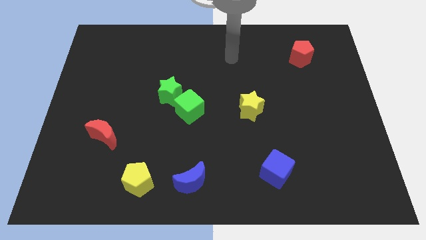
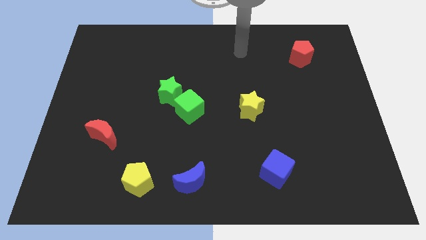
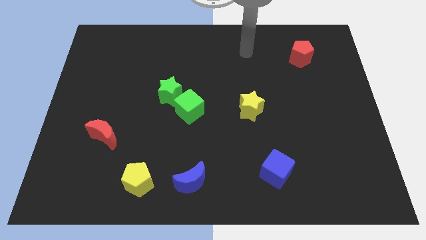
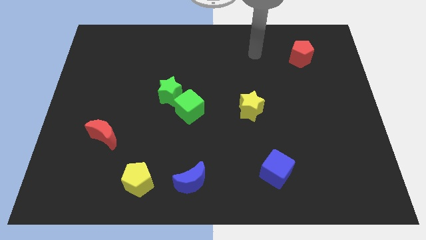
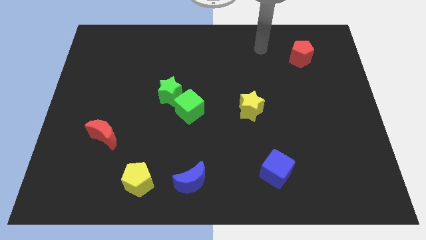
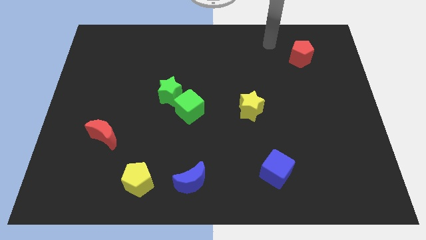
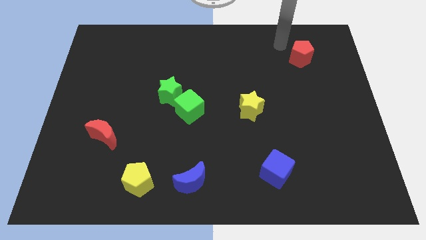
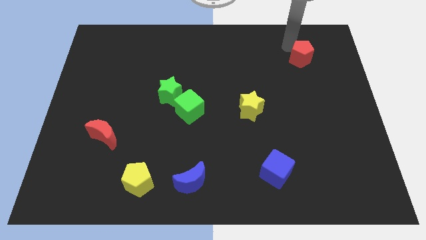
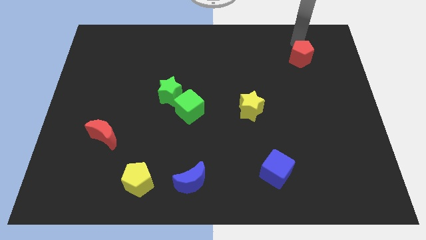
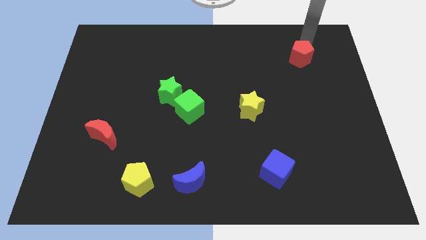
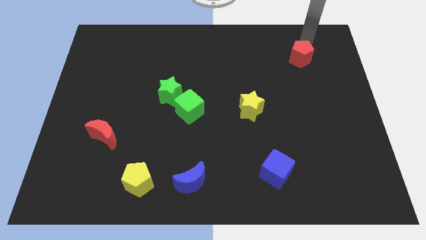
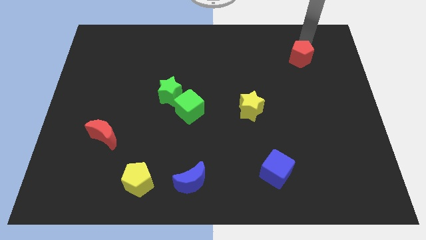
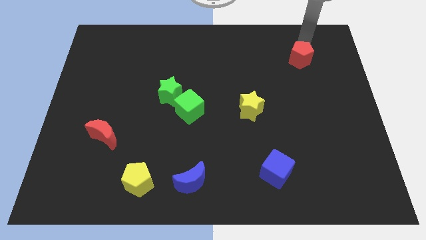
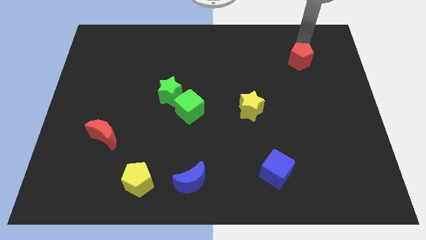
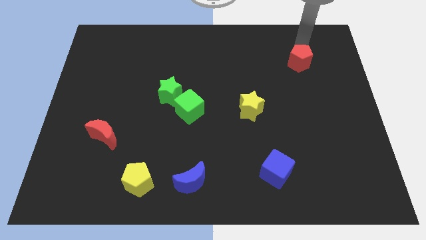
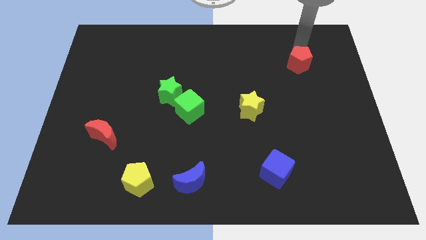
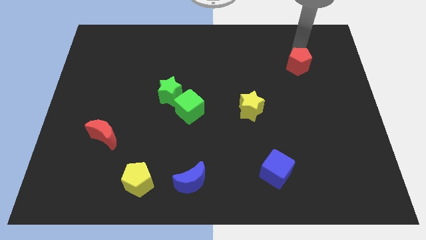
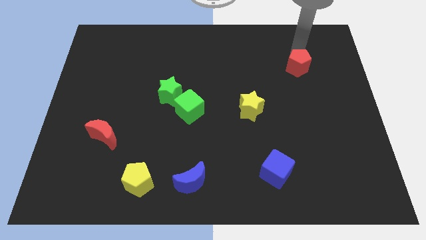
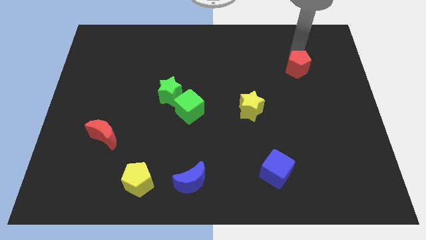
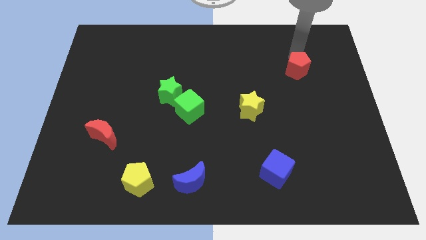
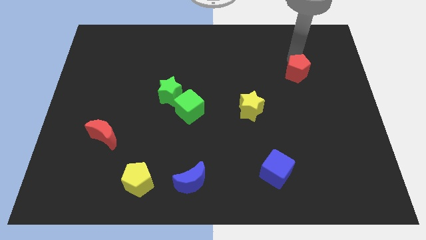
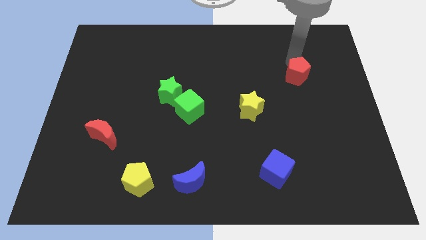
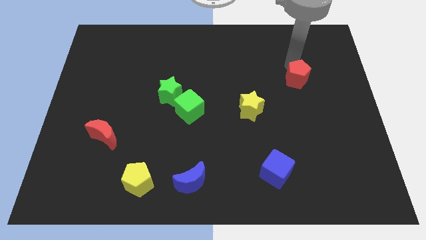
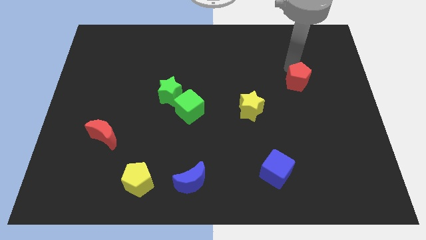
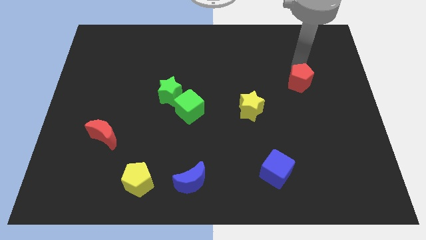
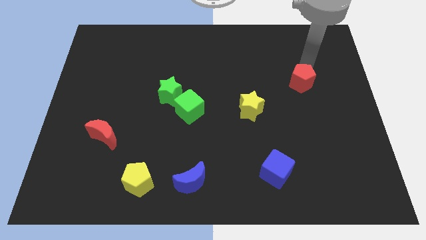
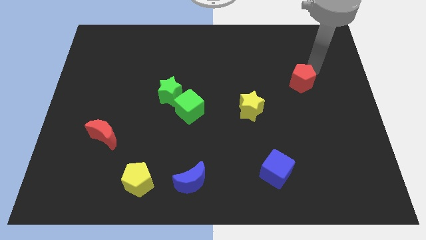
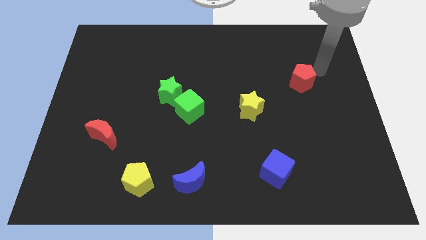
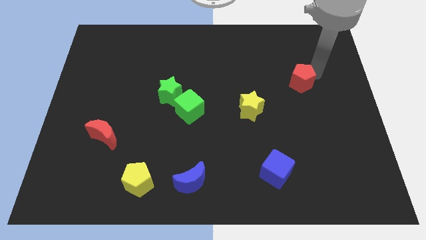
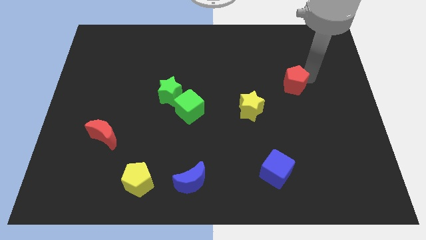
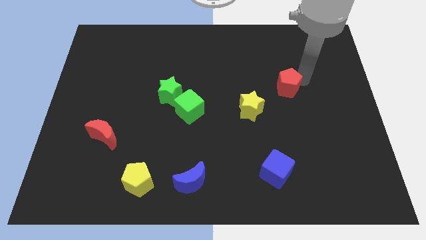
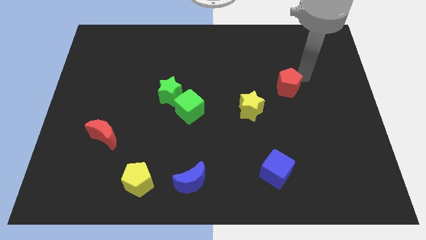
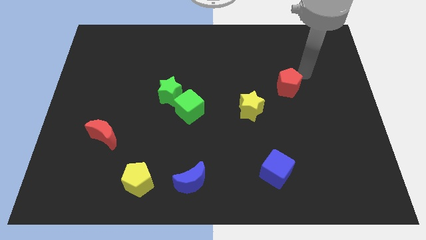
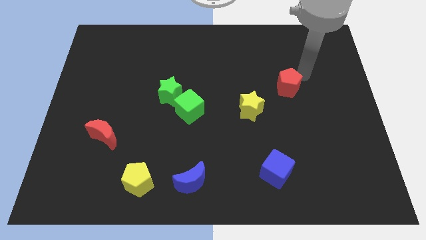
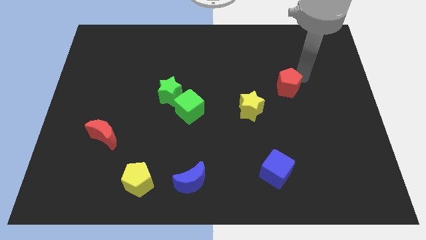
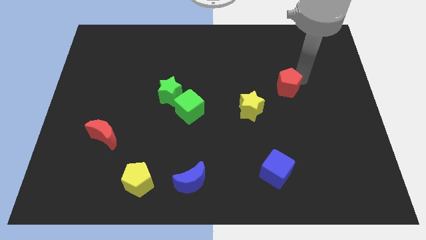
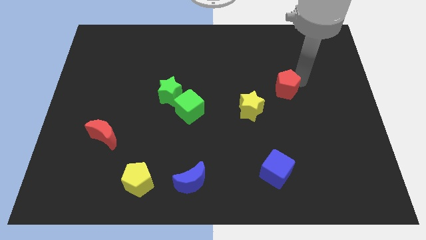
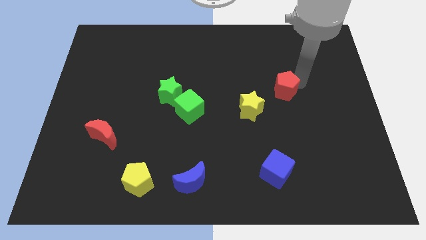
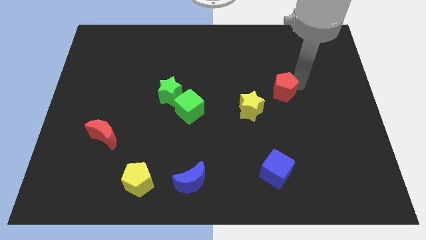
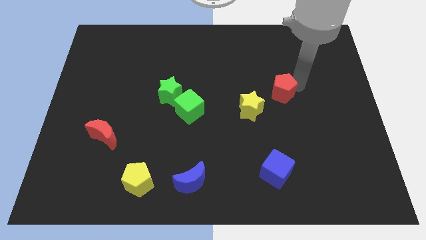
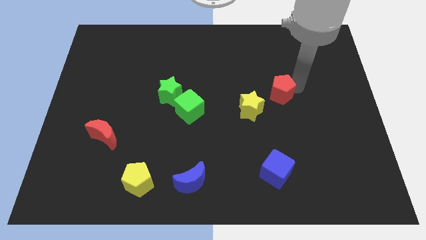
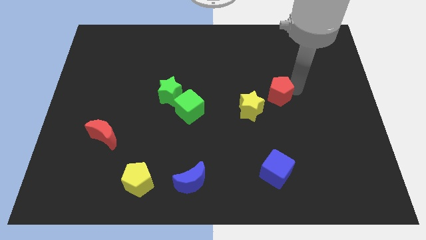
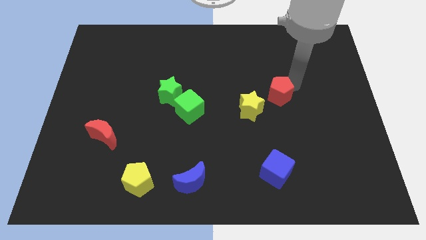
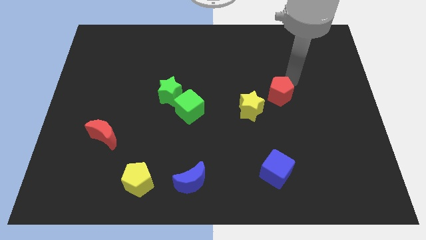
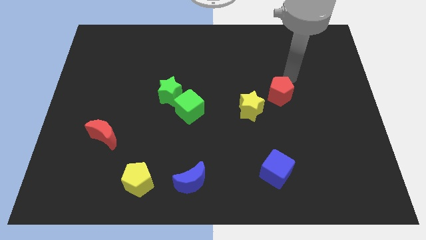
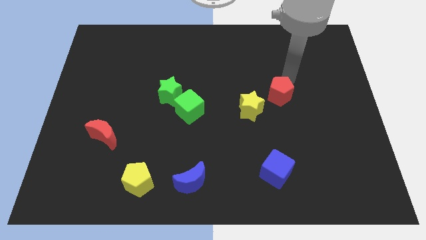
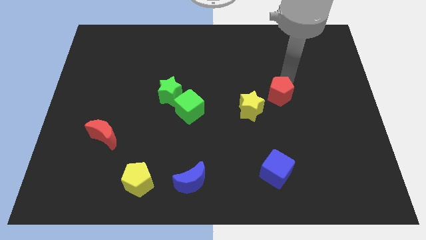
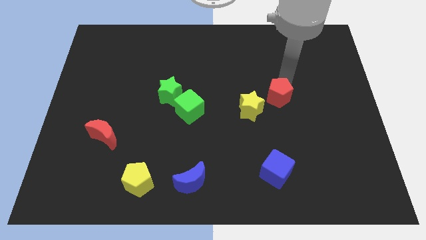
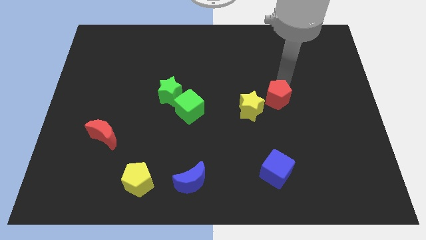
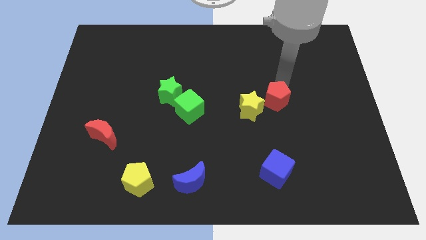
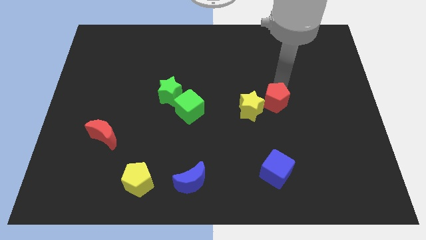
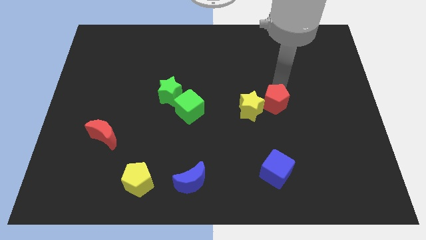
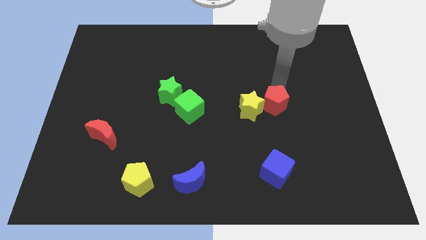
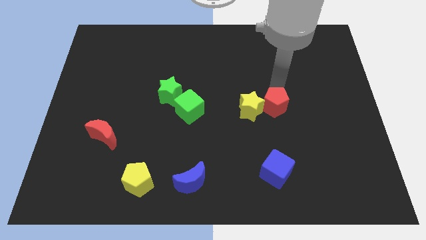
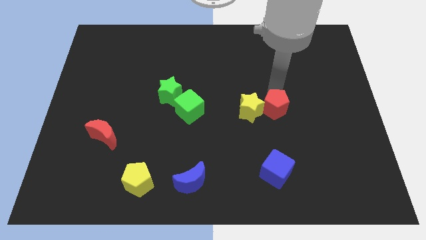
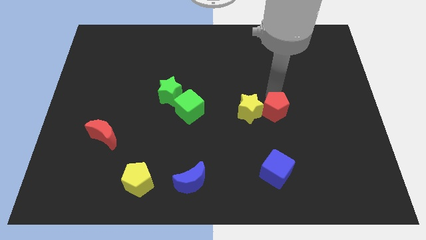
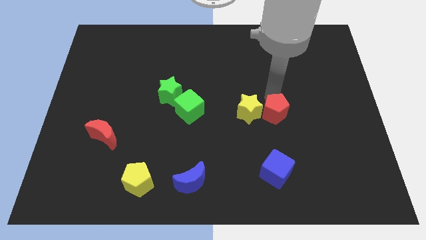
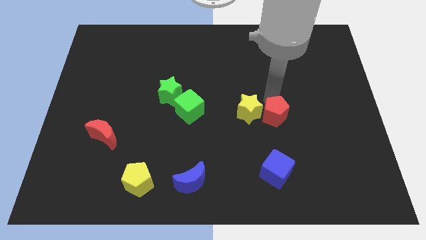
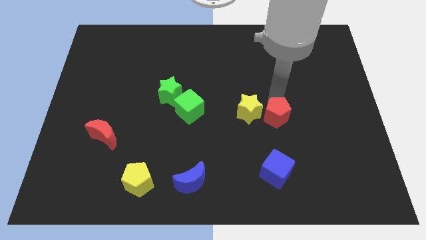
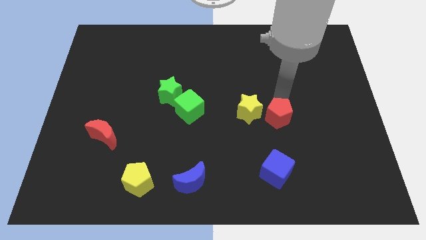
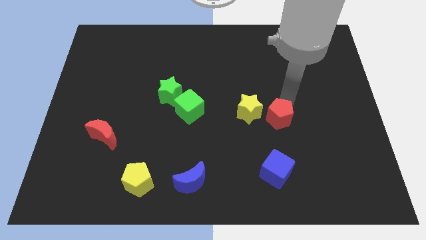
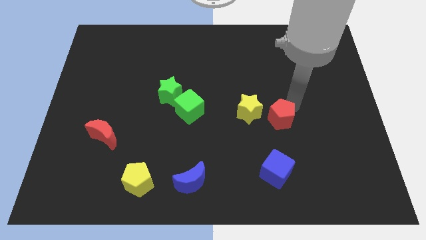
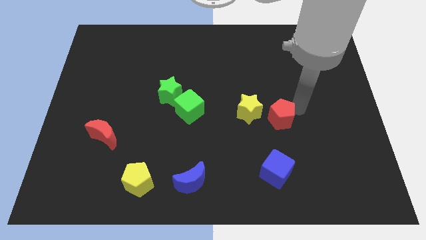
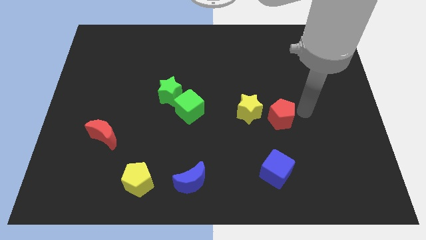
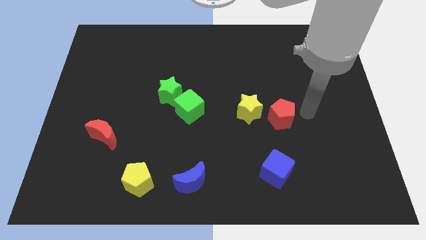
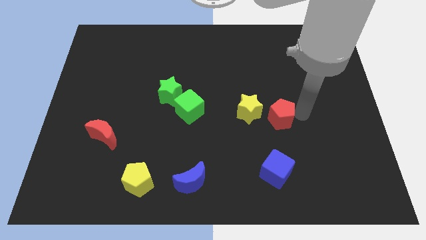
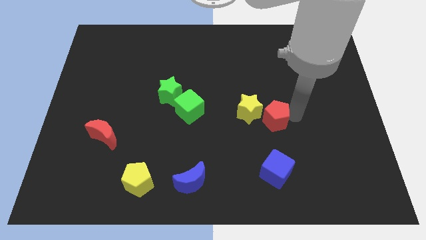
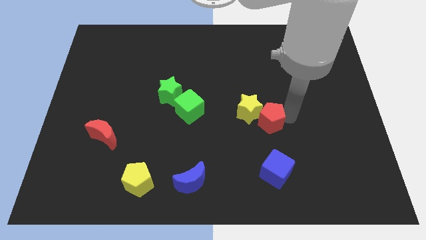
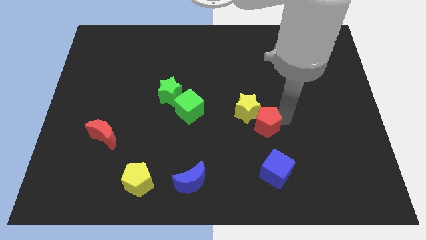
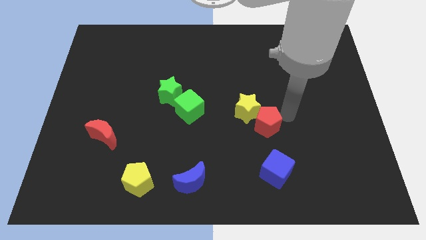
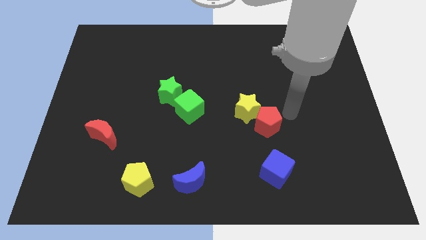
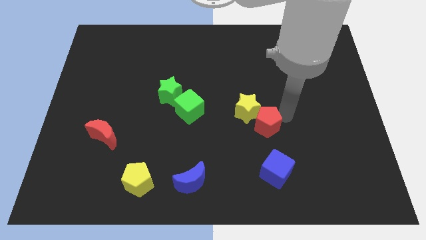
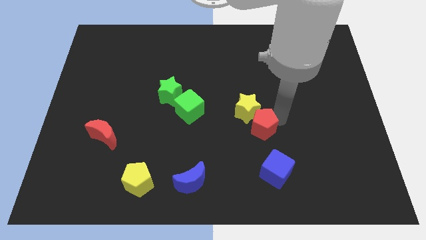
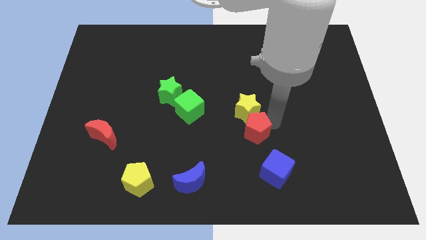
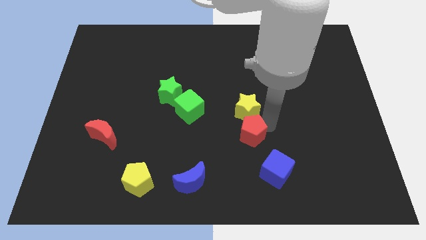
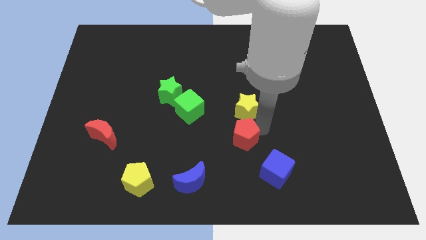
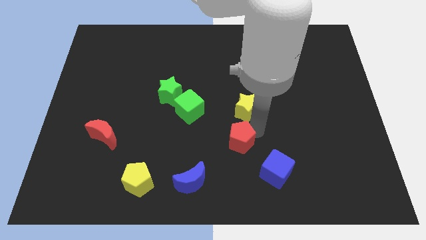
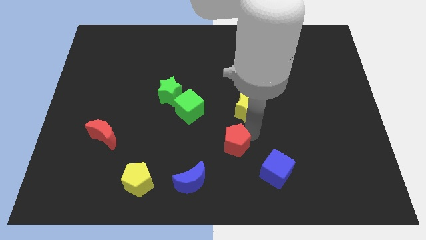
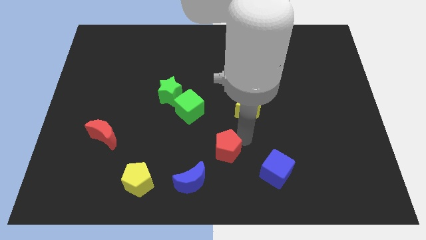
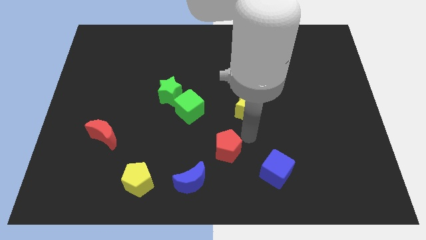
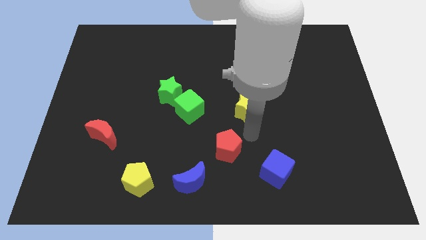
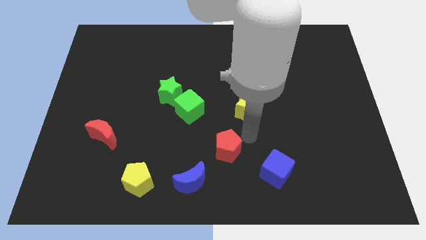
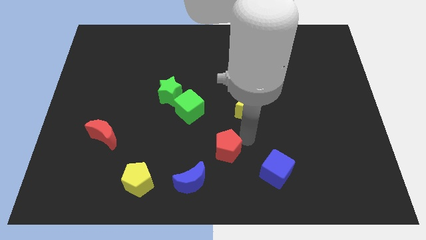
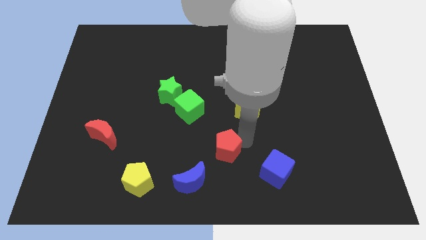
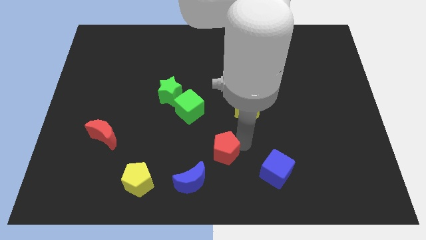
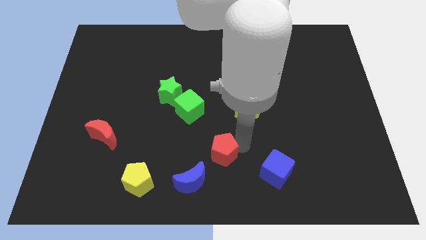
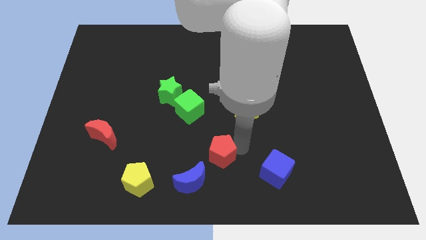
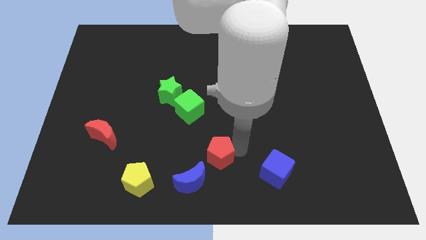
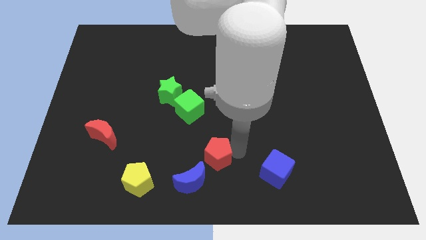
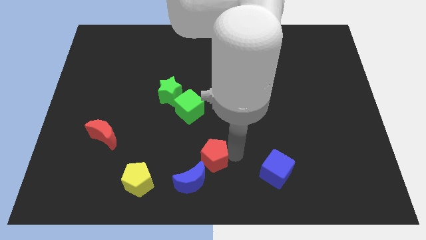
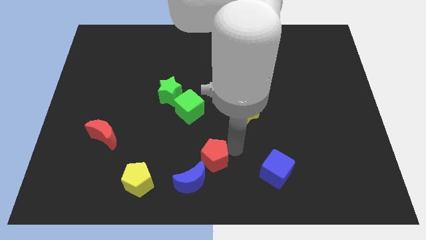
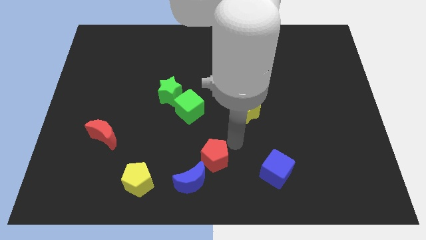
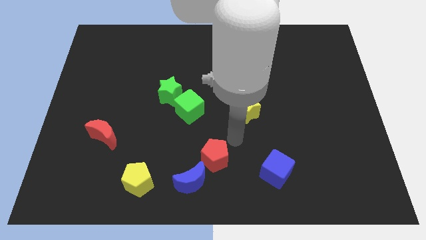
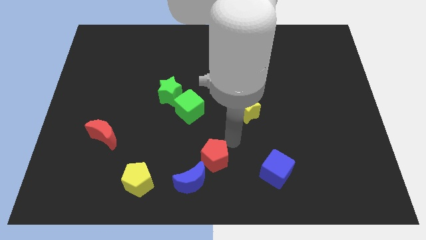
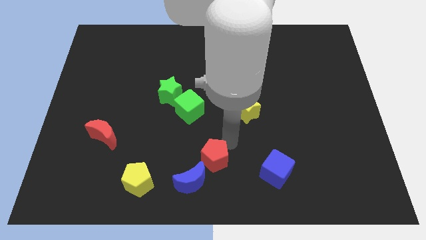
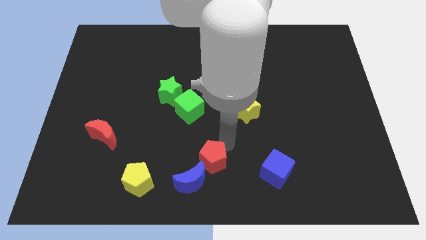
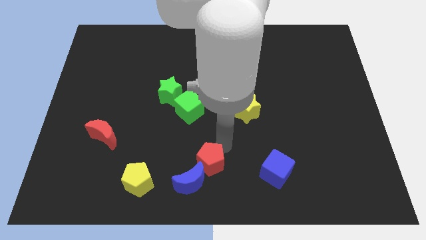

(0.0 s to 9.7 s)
slide the red pentagon to the blue moon
